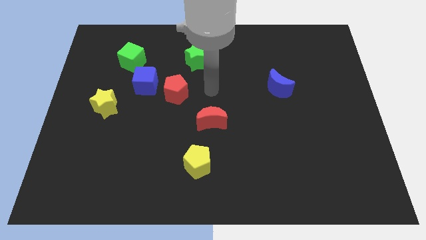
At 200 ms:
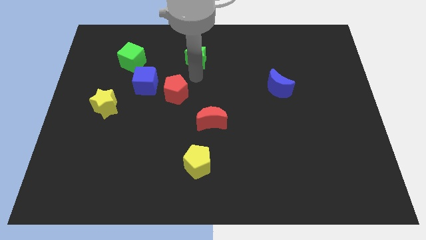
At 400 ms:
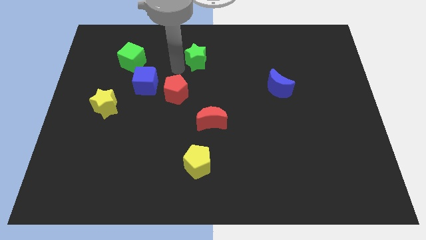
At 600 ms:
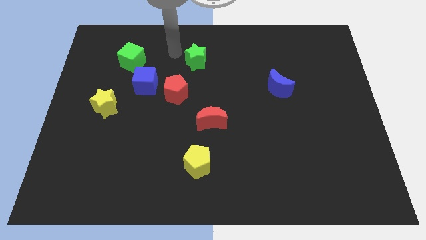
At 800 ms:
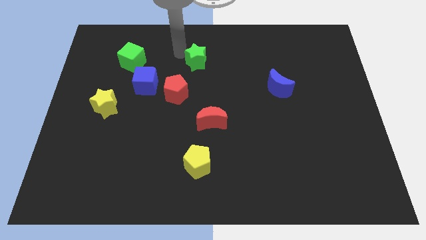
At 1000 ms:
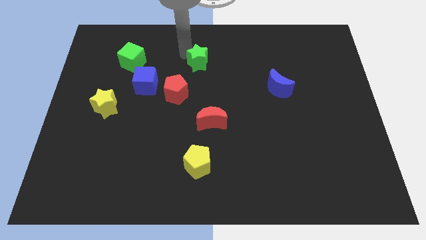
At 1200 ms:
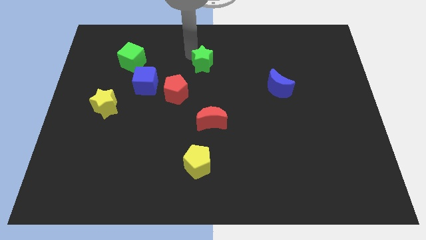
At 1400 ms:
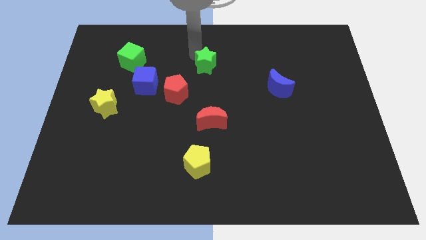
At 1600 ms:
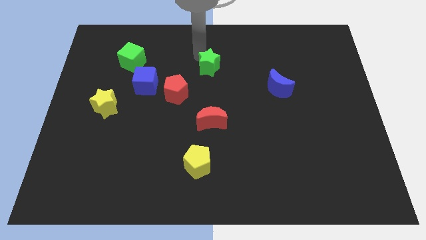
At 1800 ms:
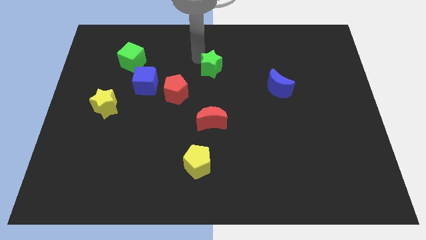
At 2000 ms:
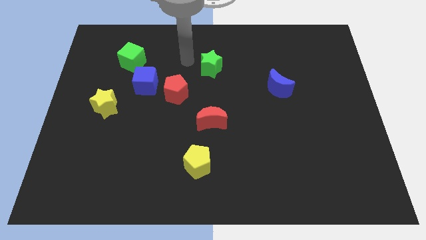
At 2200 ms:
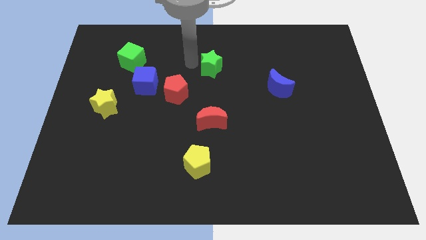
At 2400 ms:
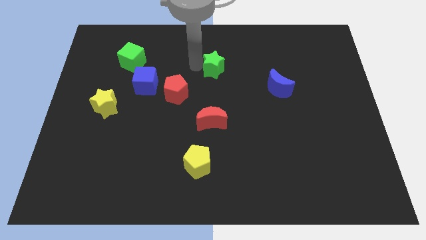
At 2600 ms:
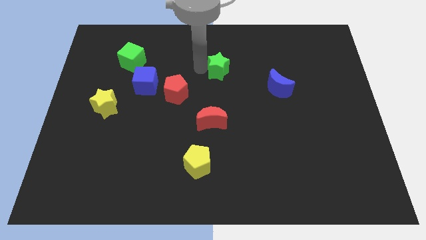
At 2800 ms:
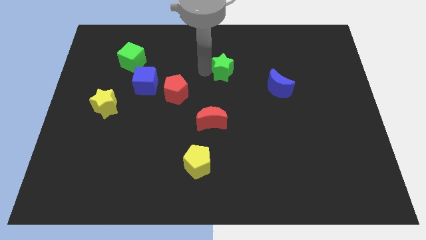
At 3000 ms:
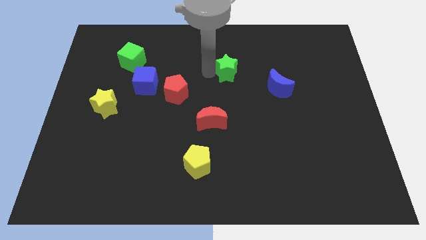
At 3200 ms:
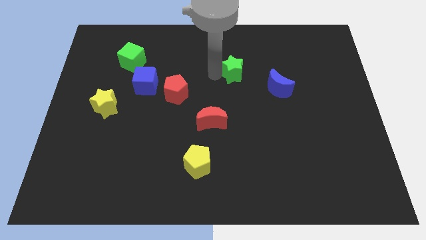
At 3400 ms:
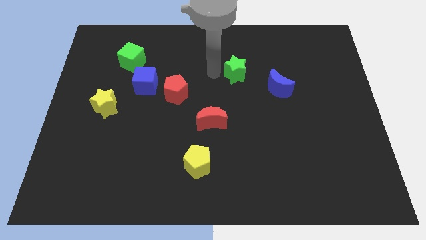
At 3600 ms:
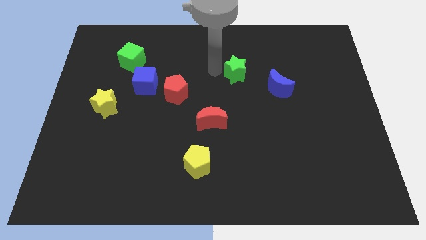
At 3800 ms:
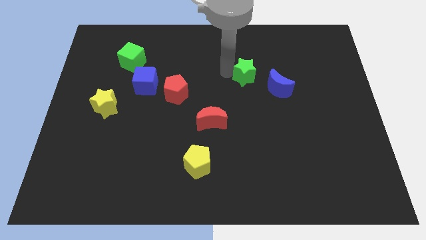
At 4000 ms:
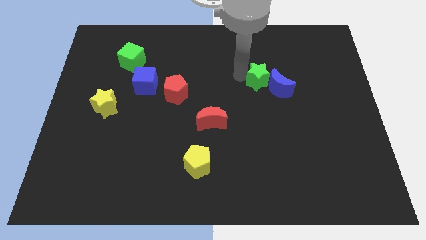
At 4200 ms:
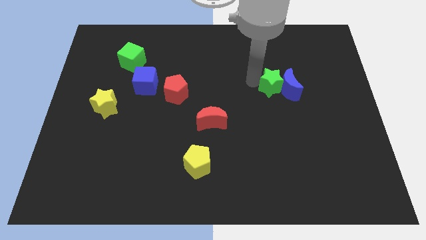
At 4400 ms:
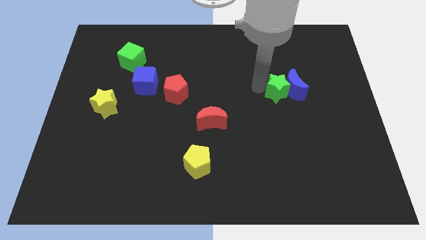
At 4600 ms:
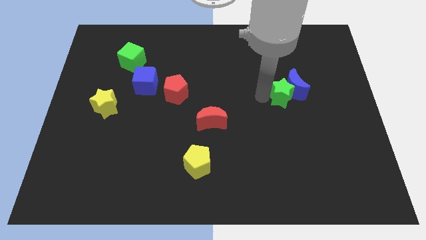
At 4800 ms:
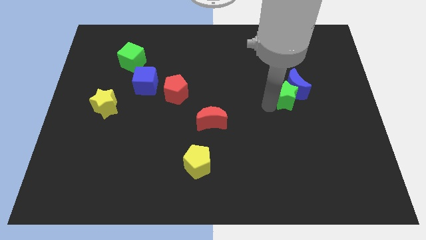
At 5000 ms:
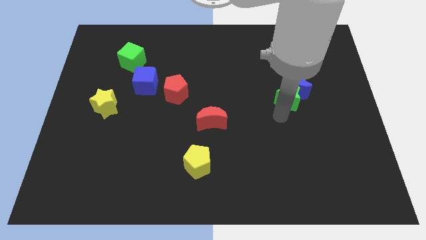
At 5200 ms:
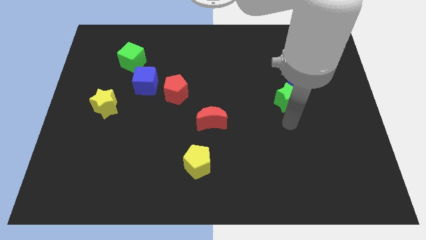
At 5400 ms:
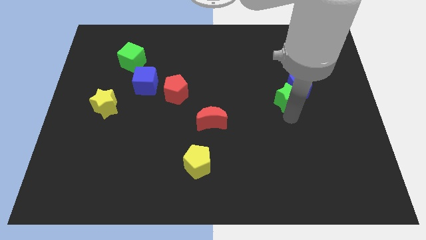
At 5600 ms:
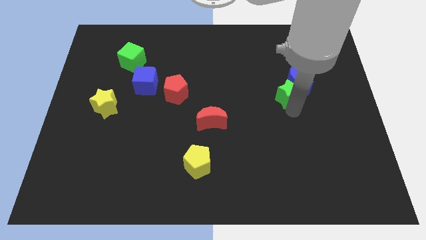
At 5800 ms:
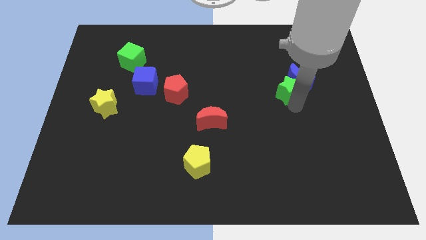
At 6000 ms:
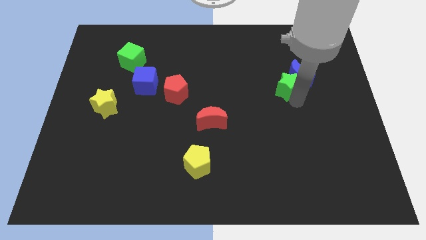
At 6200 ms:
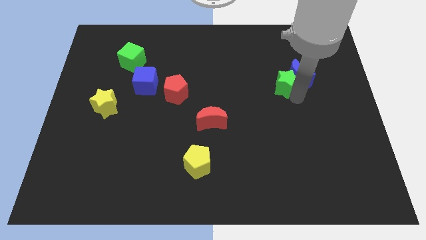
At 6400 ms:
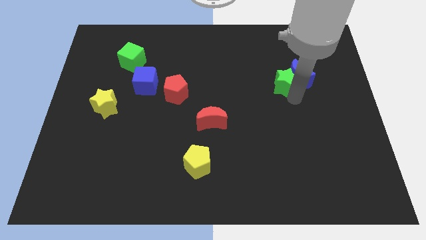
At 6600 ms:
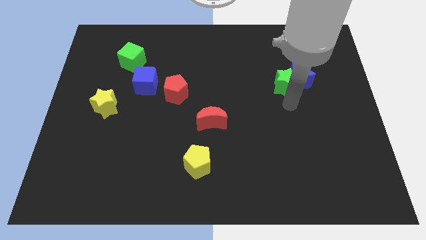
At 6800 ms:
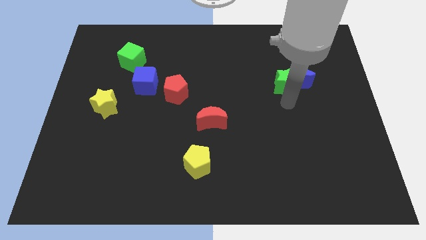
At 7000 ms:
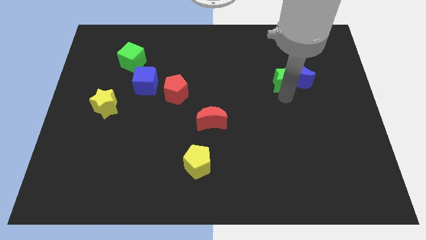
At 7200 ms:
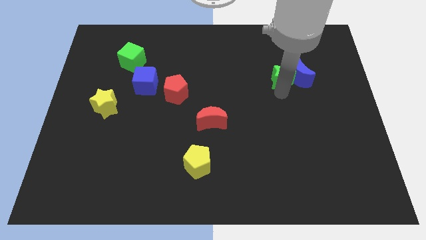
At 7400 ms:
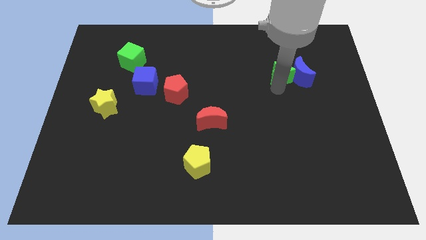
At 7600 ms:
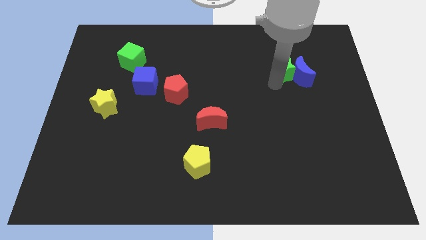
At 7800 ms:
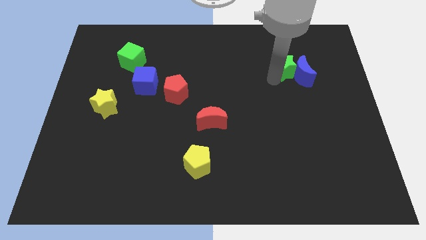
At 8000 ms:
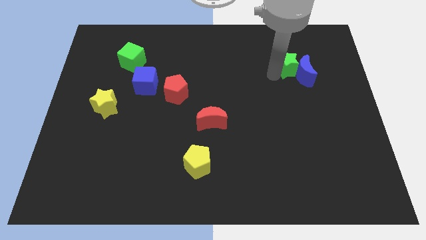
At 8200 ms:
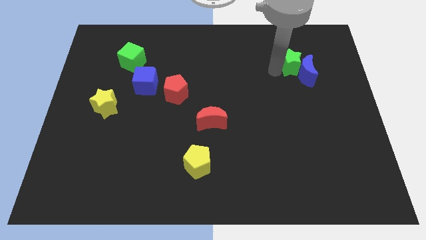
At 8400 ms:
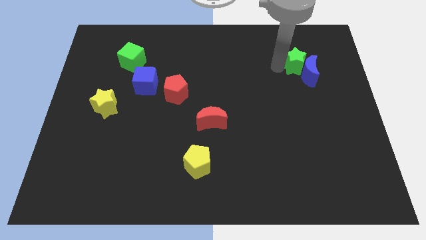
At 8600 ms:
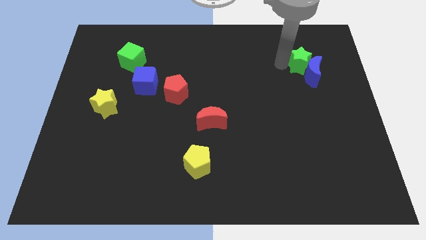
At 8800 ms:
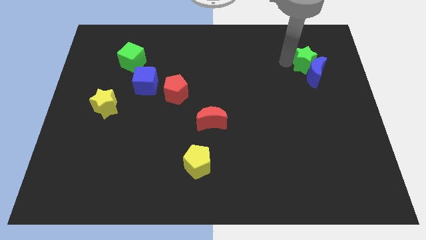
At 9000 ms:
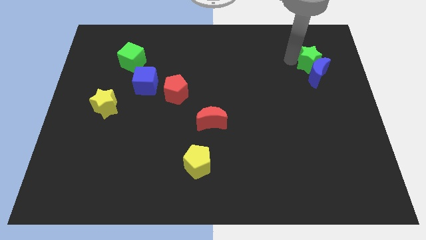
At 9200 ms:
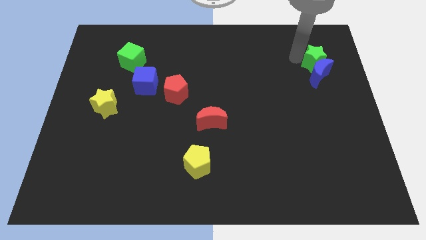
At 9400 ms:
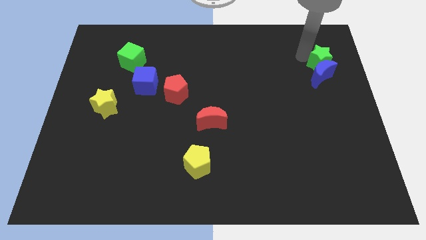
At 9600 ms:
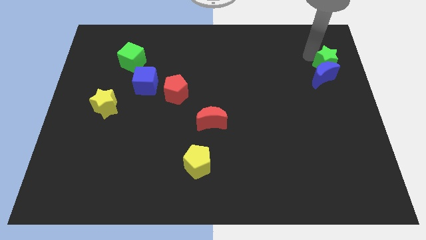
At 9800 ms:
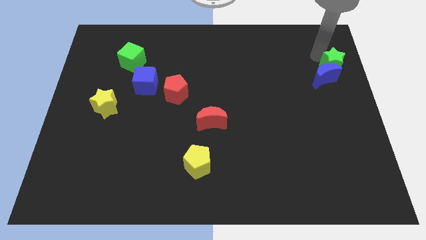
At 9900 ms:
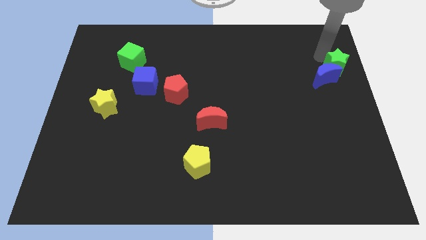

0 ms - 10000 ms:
move the green star to the right side

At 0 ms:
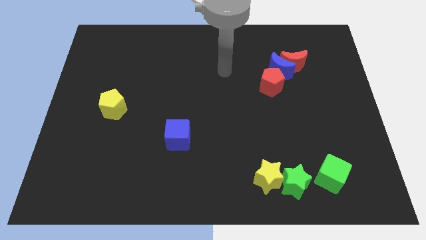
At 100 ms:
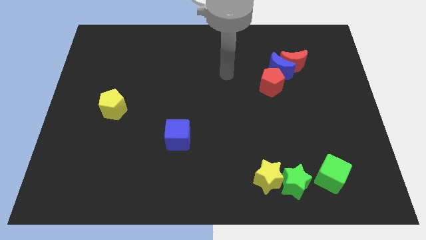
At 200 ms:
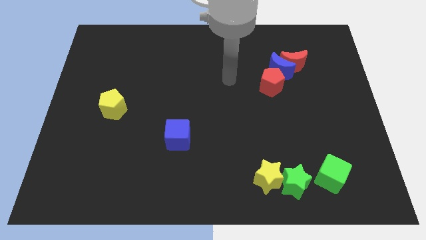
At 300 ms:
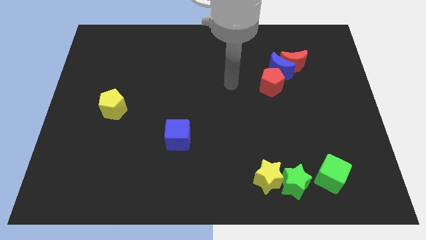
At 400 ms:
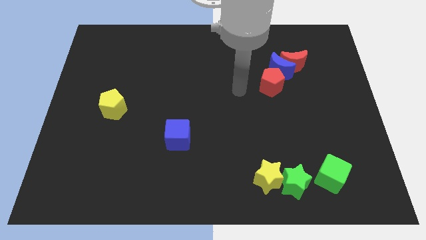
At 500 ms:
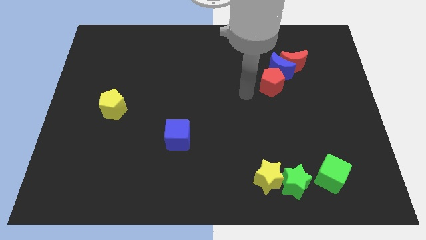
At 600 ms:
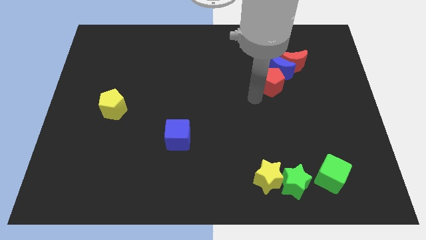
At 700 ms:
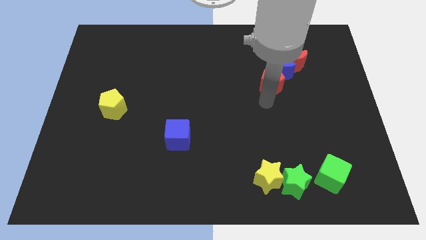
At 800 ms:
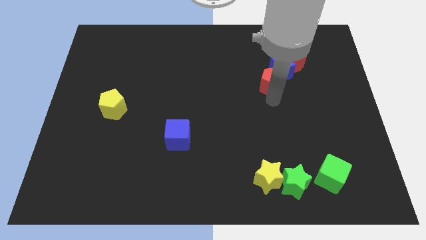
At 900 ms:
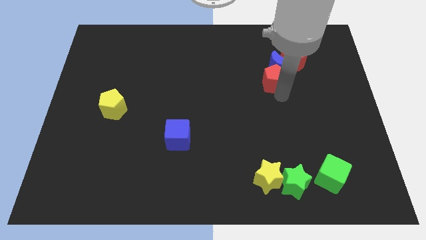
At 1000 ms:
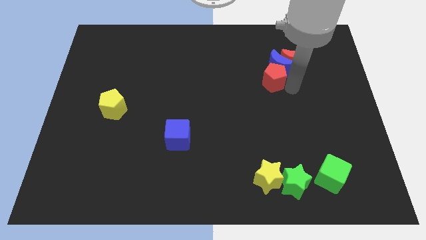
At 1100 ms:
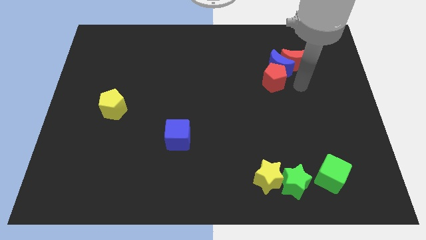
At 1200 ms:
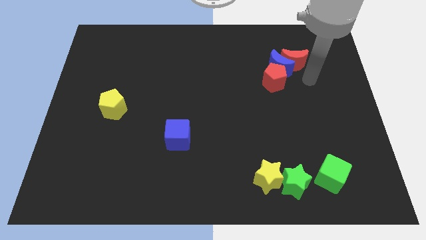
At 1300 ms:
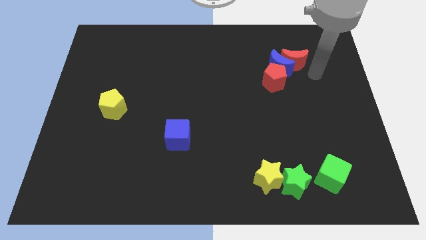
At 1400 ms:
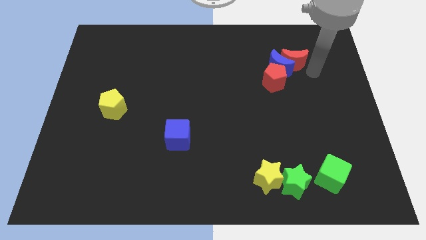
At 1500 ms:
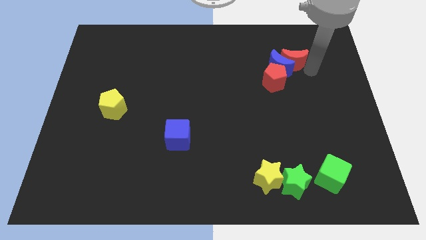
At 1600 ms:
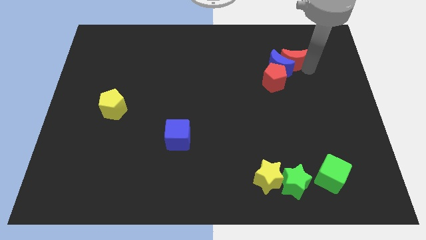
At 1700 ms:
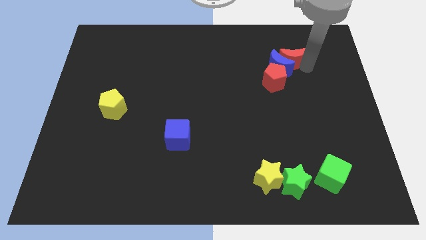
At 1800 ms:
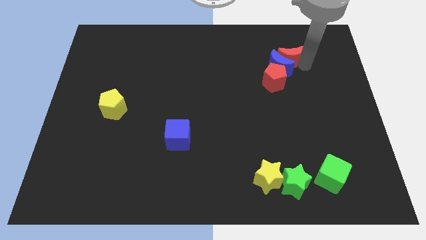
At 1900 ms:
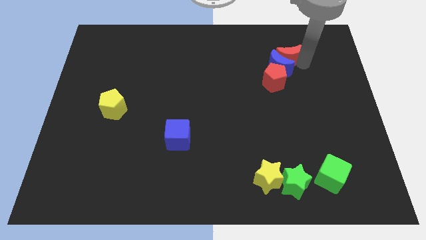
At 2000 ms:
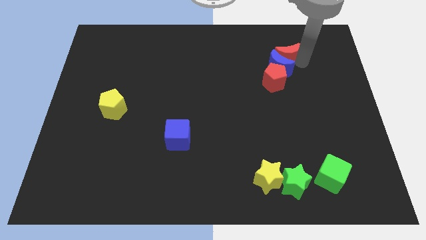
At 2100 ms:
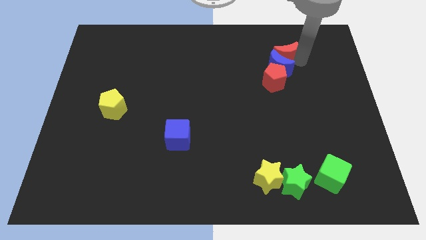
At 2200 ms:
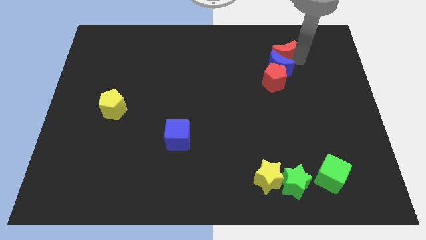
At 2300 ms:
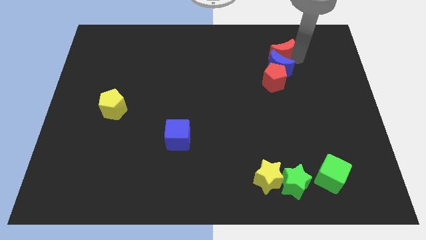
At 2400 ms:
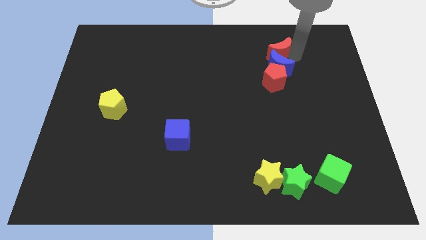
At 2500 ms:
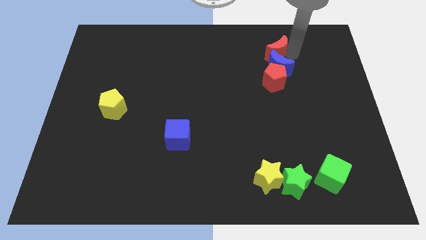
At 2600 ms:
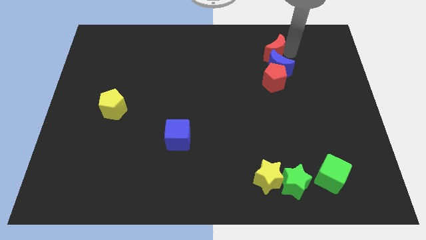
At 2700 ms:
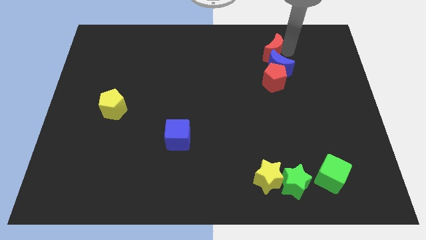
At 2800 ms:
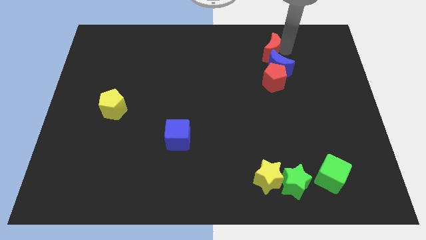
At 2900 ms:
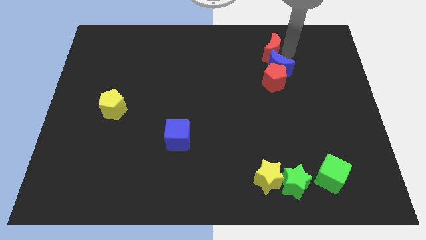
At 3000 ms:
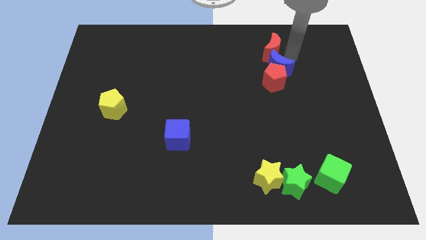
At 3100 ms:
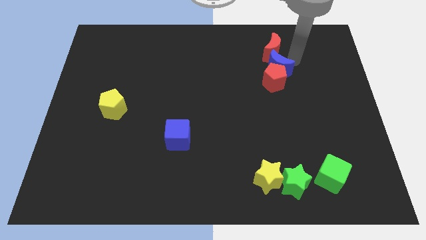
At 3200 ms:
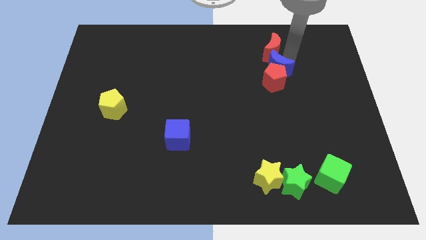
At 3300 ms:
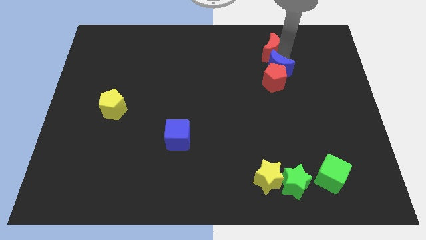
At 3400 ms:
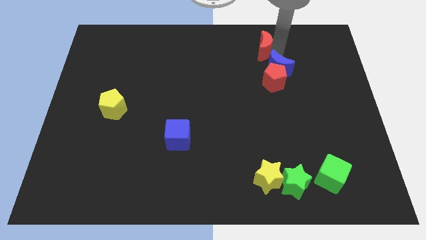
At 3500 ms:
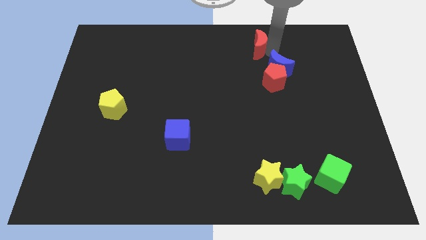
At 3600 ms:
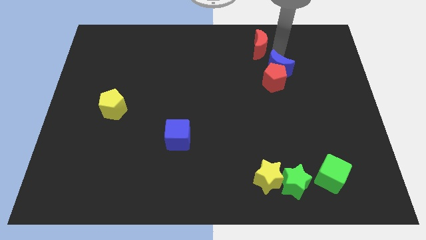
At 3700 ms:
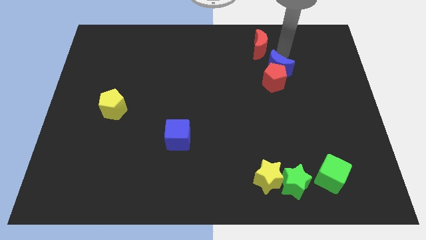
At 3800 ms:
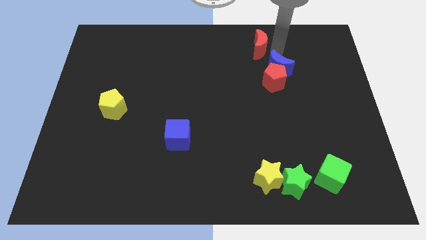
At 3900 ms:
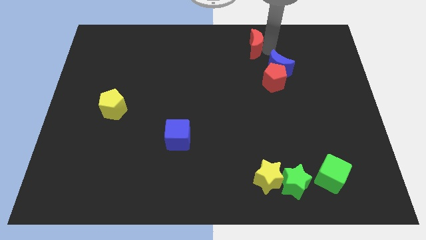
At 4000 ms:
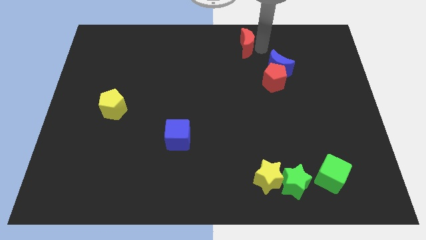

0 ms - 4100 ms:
put the red moon to the towards your base
